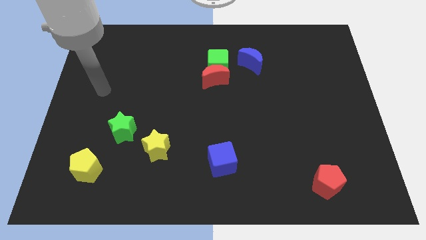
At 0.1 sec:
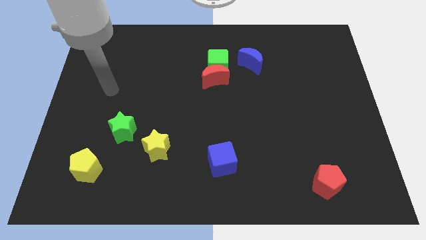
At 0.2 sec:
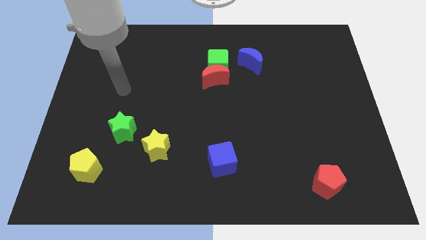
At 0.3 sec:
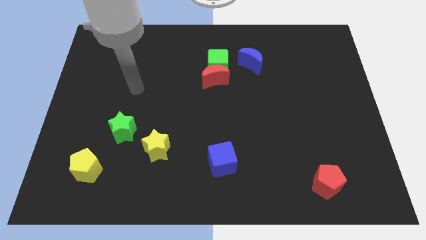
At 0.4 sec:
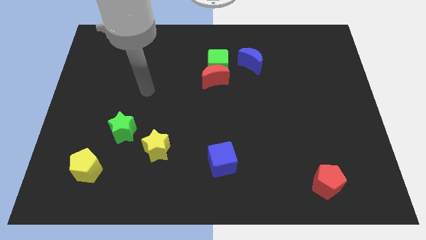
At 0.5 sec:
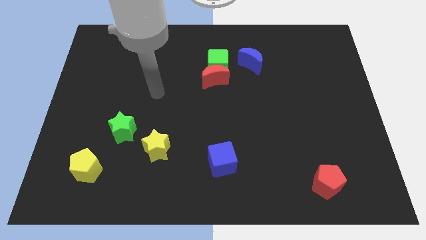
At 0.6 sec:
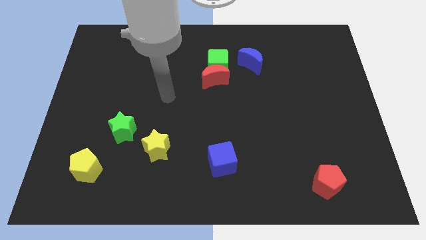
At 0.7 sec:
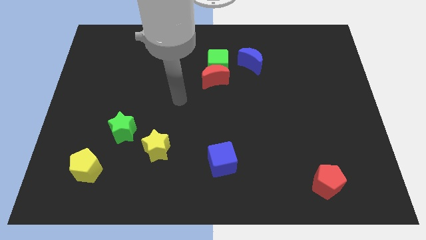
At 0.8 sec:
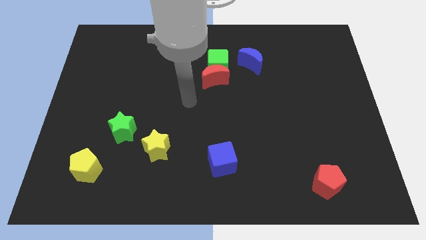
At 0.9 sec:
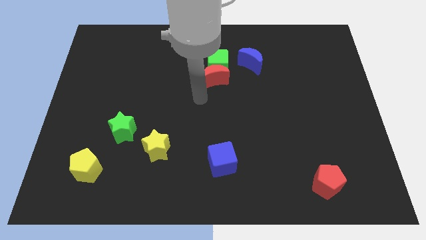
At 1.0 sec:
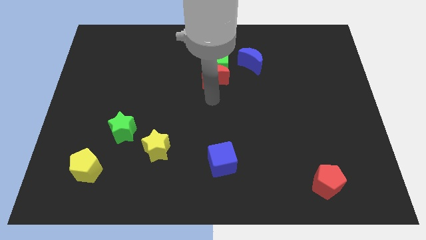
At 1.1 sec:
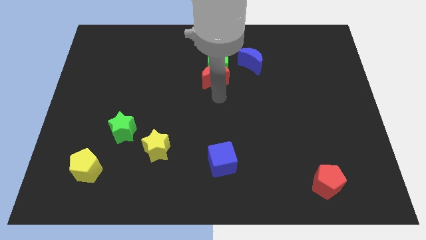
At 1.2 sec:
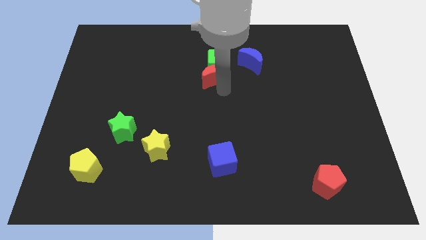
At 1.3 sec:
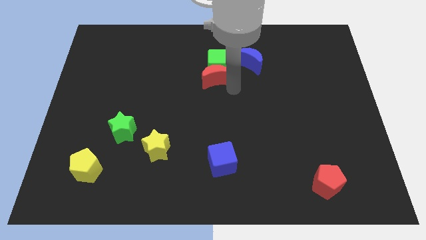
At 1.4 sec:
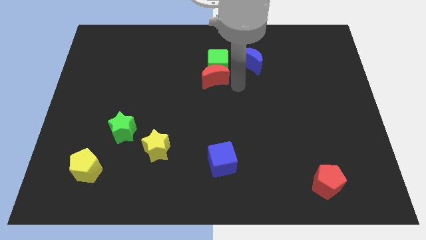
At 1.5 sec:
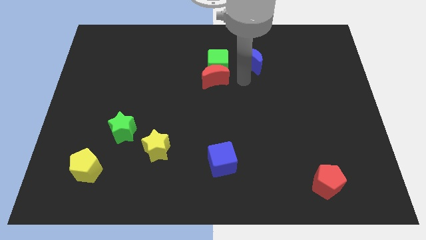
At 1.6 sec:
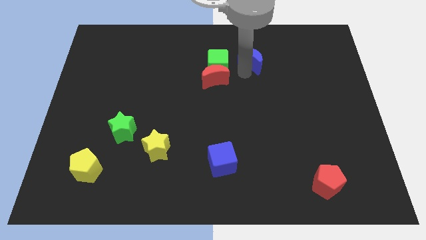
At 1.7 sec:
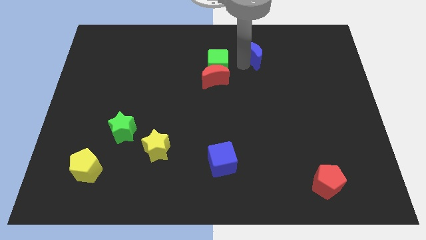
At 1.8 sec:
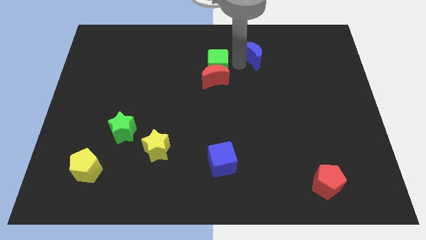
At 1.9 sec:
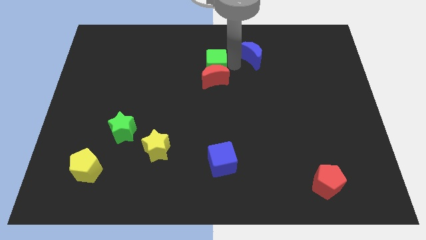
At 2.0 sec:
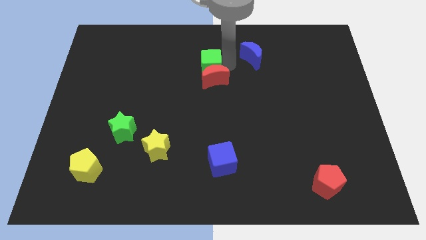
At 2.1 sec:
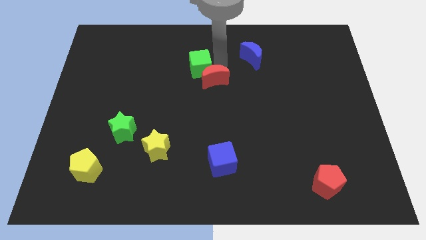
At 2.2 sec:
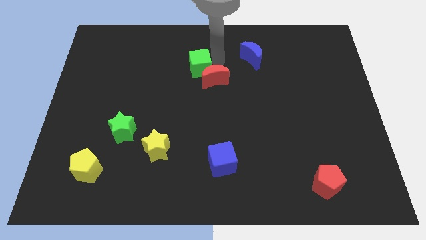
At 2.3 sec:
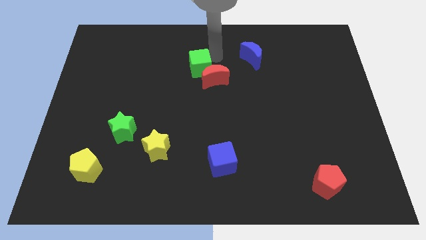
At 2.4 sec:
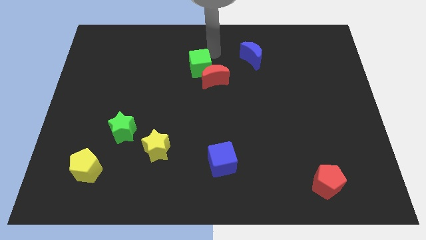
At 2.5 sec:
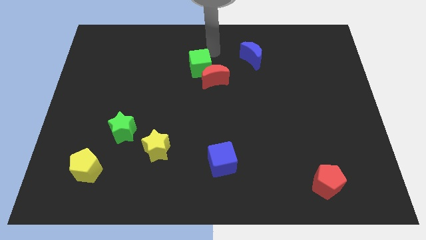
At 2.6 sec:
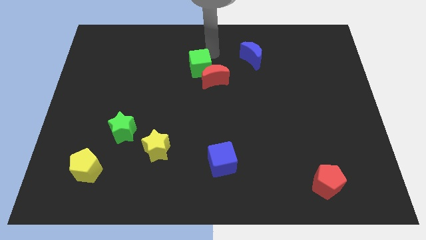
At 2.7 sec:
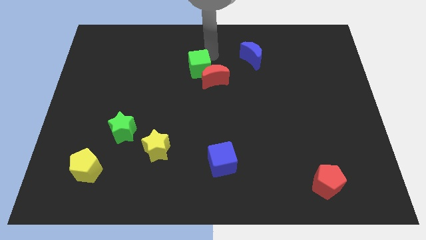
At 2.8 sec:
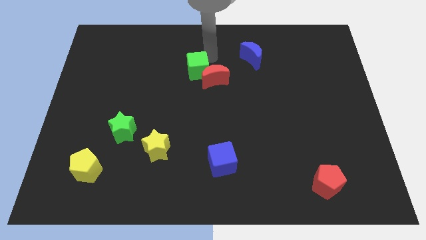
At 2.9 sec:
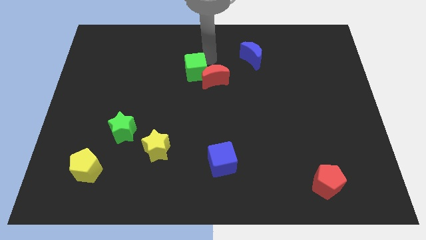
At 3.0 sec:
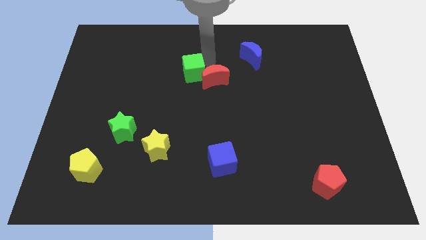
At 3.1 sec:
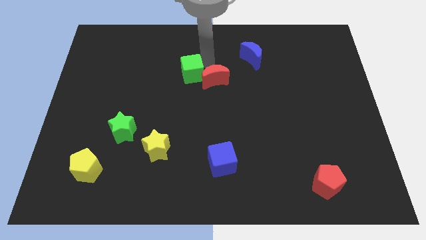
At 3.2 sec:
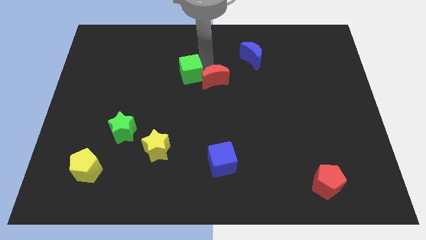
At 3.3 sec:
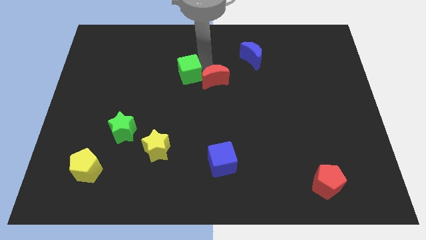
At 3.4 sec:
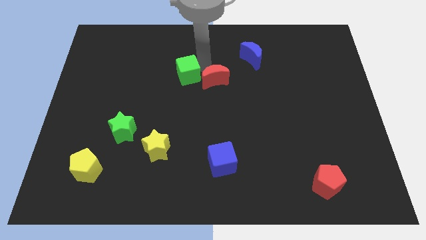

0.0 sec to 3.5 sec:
slightly push the green cube downwards and then to the left

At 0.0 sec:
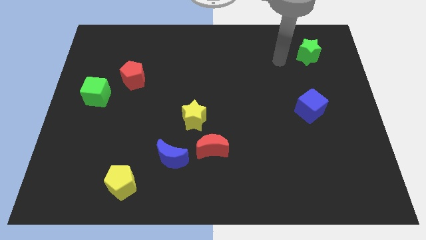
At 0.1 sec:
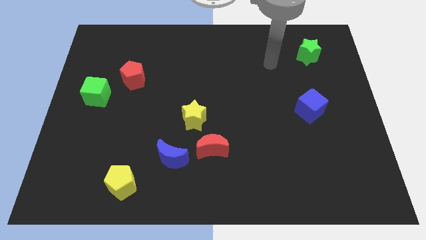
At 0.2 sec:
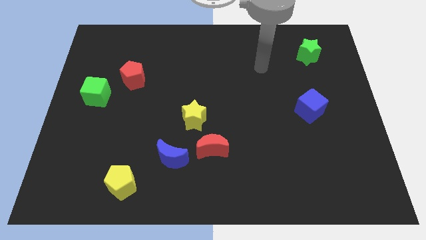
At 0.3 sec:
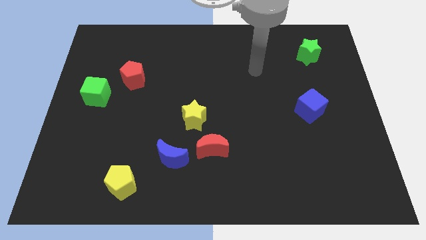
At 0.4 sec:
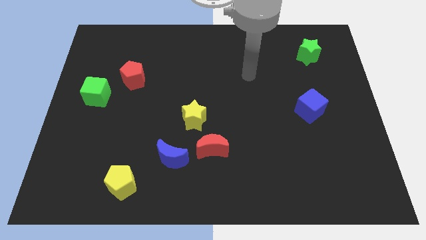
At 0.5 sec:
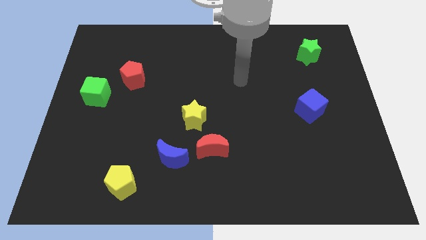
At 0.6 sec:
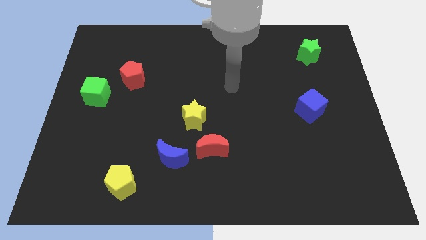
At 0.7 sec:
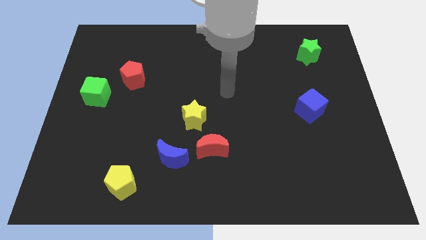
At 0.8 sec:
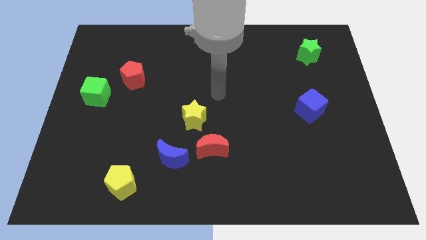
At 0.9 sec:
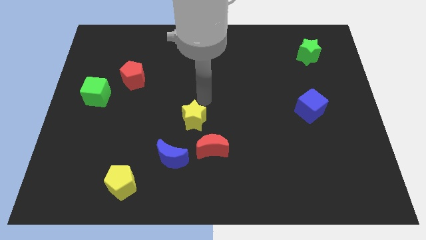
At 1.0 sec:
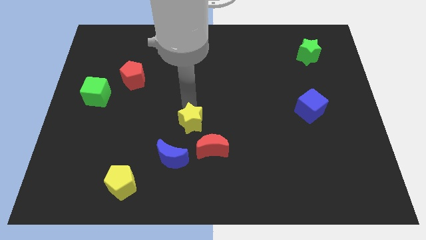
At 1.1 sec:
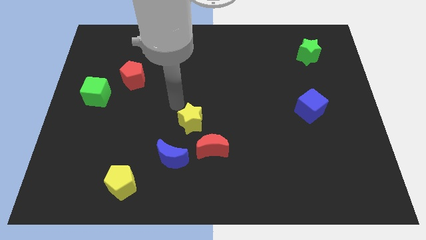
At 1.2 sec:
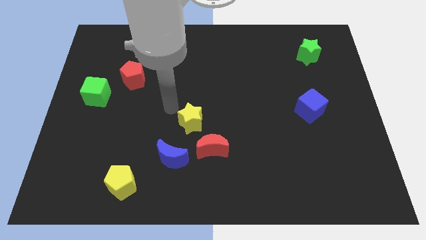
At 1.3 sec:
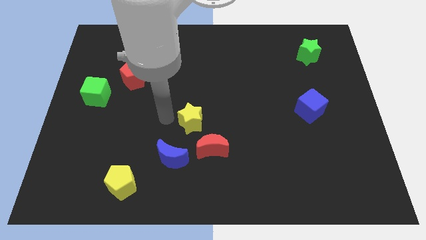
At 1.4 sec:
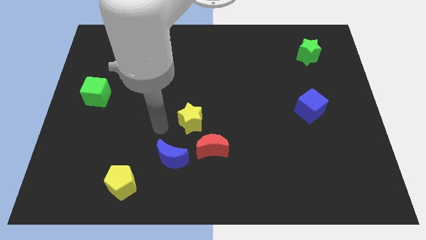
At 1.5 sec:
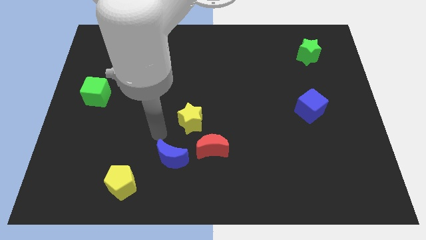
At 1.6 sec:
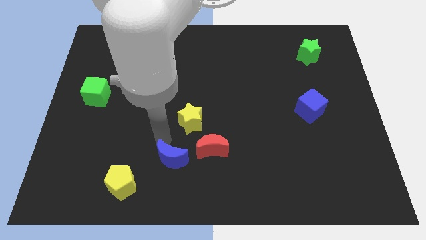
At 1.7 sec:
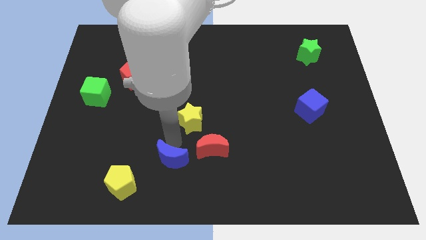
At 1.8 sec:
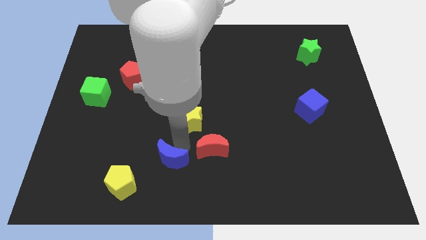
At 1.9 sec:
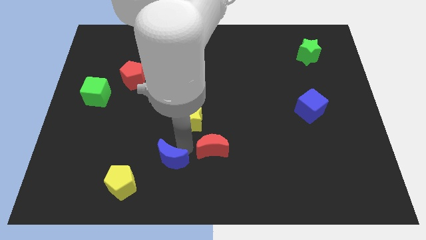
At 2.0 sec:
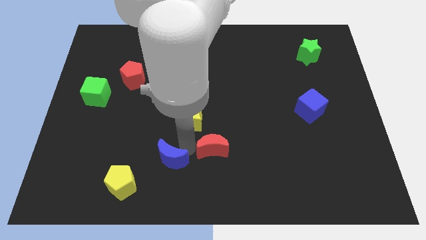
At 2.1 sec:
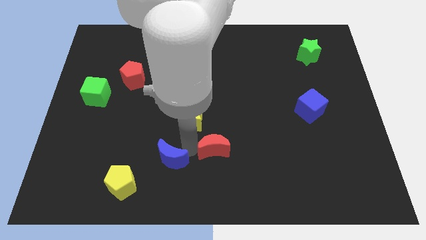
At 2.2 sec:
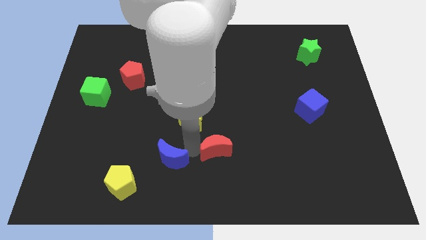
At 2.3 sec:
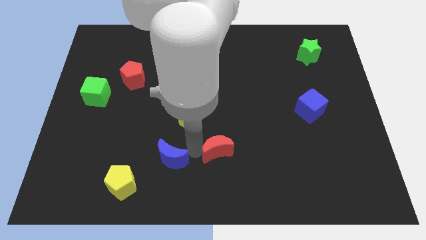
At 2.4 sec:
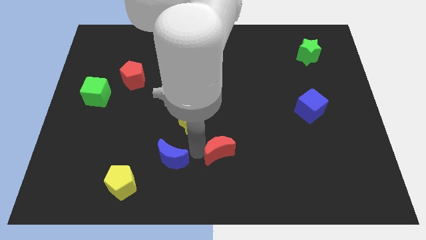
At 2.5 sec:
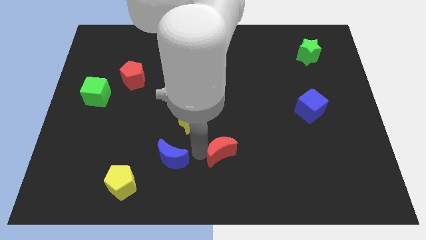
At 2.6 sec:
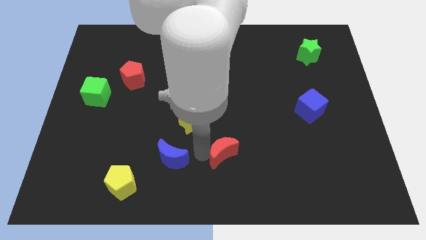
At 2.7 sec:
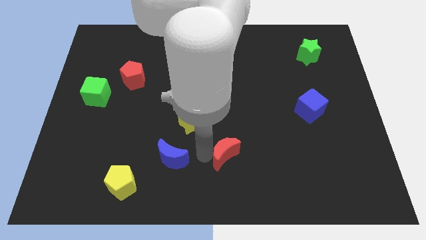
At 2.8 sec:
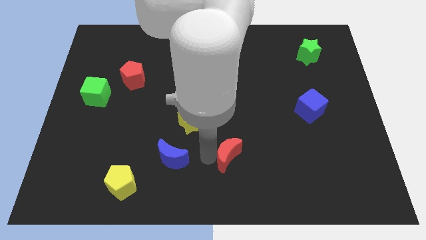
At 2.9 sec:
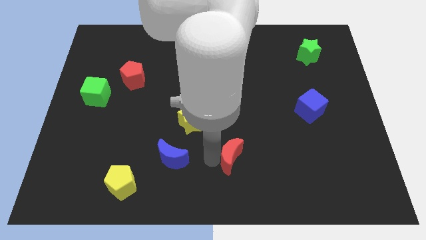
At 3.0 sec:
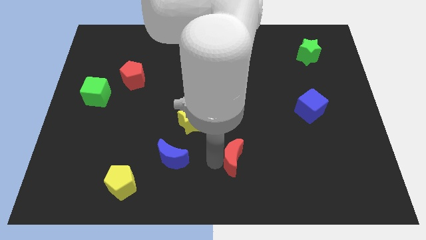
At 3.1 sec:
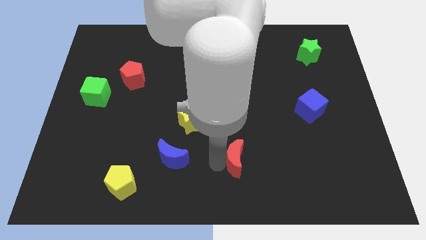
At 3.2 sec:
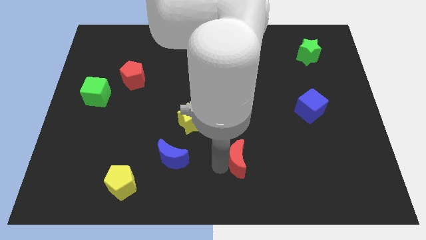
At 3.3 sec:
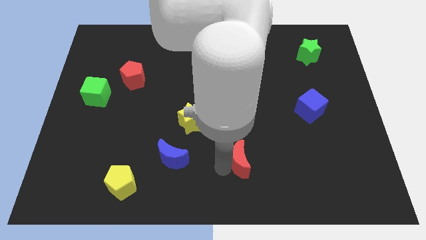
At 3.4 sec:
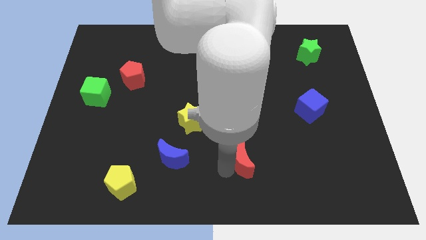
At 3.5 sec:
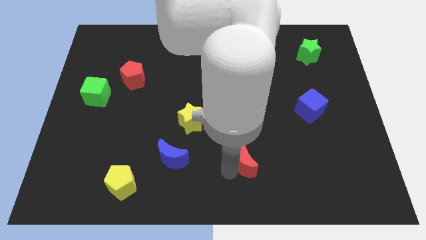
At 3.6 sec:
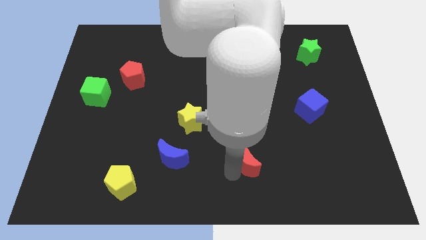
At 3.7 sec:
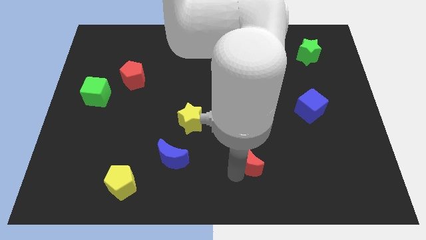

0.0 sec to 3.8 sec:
slide the red moon right a little

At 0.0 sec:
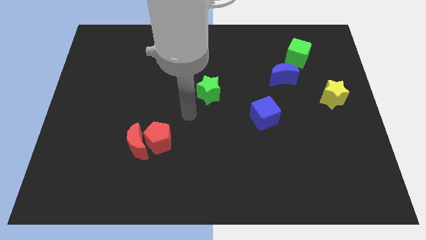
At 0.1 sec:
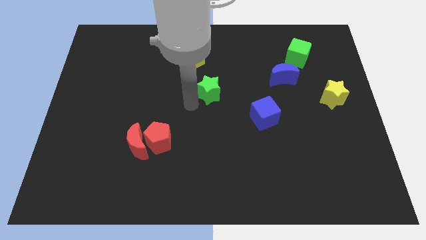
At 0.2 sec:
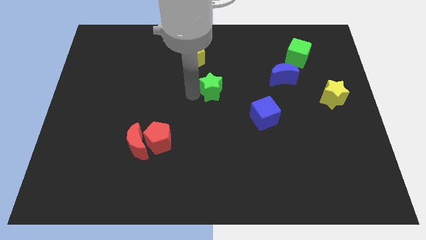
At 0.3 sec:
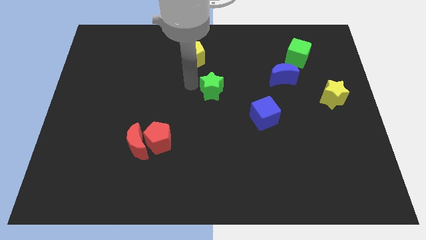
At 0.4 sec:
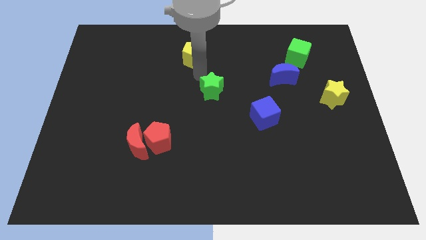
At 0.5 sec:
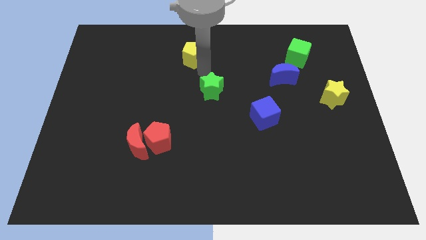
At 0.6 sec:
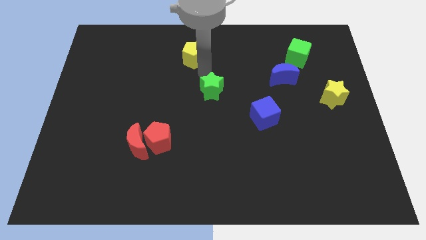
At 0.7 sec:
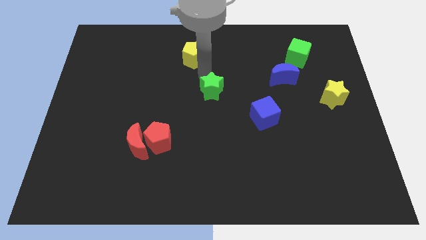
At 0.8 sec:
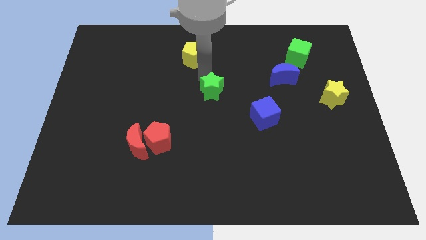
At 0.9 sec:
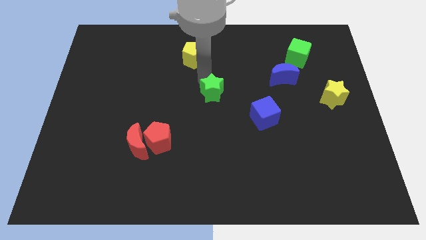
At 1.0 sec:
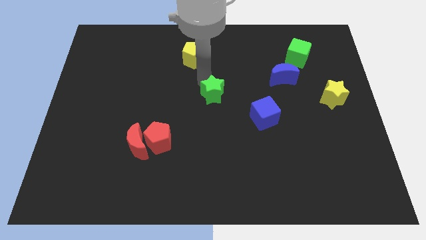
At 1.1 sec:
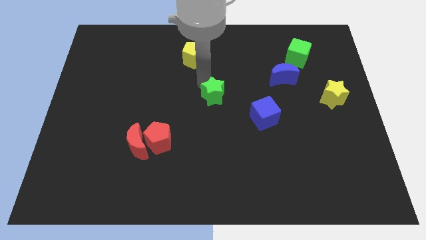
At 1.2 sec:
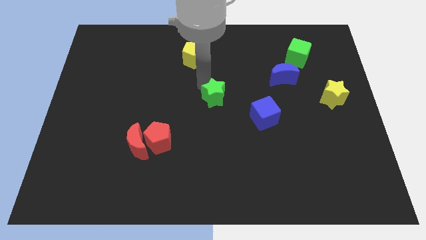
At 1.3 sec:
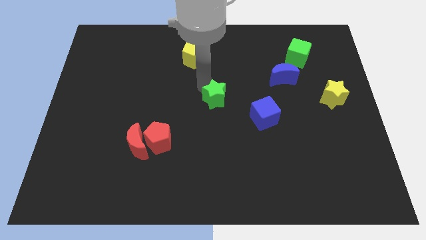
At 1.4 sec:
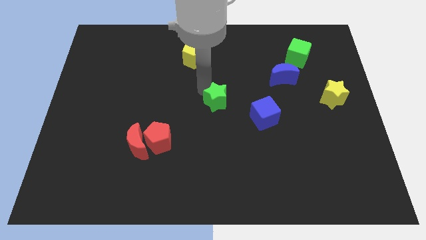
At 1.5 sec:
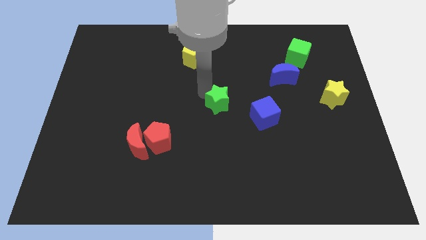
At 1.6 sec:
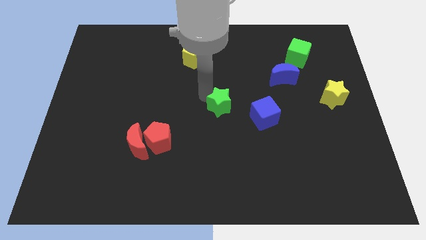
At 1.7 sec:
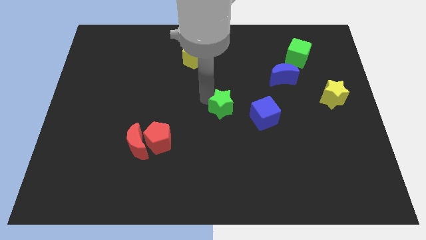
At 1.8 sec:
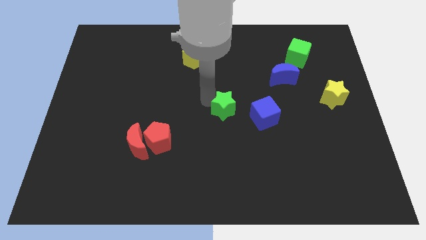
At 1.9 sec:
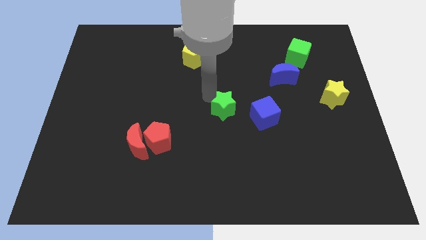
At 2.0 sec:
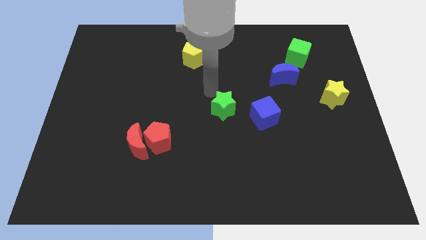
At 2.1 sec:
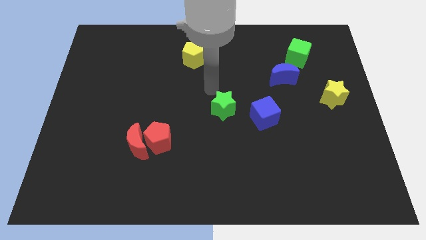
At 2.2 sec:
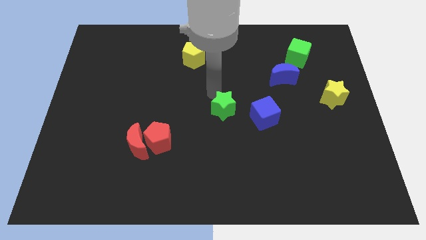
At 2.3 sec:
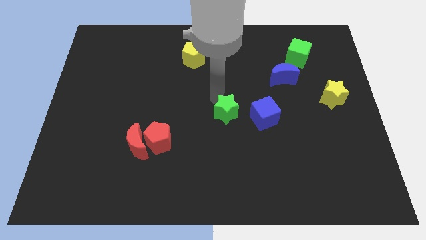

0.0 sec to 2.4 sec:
push the green star a little bit diagonally downwards and right
